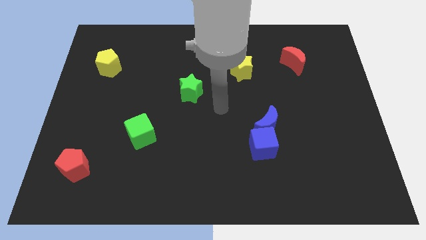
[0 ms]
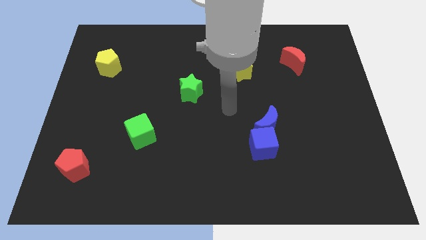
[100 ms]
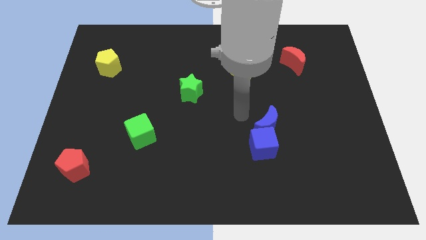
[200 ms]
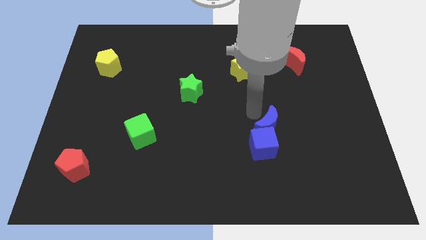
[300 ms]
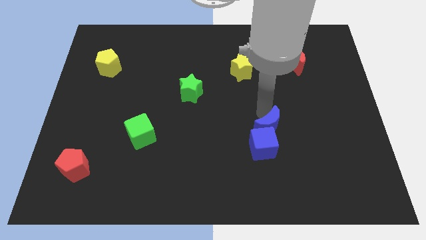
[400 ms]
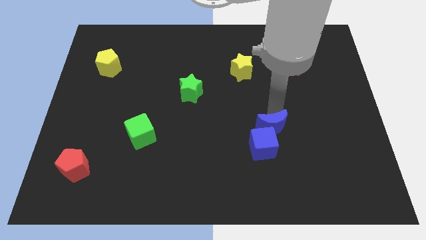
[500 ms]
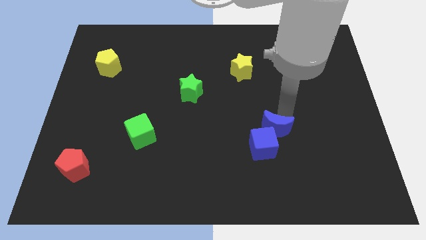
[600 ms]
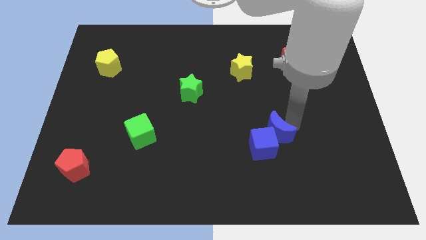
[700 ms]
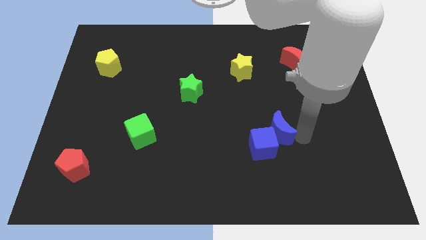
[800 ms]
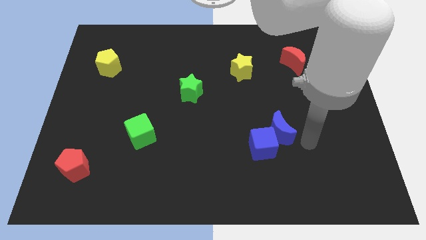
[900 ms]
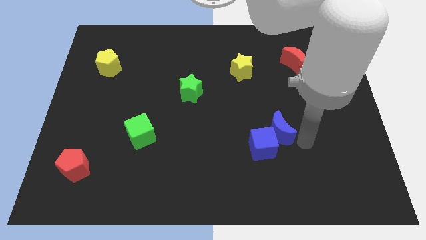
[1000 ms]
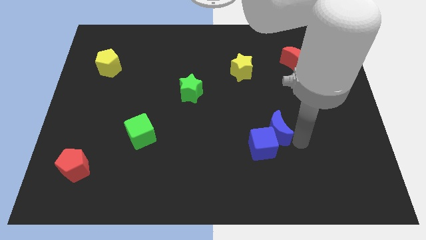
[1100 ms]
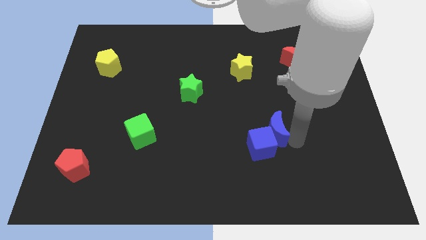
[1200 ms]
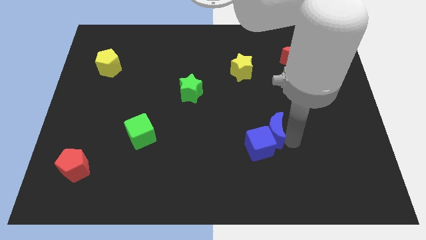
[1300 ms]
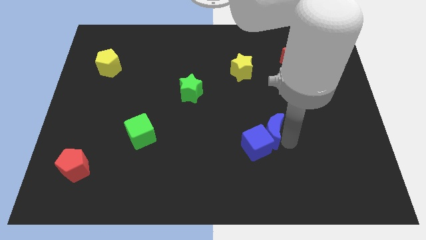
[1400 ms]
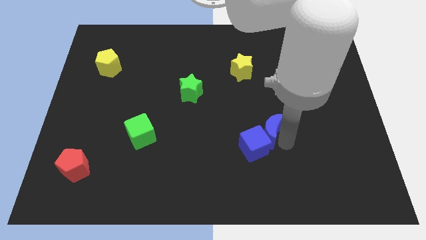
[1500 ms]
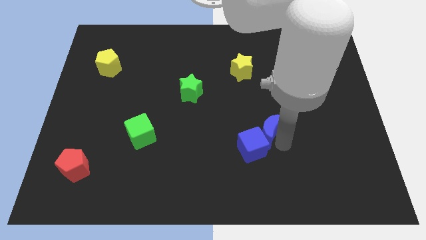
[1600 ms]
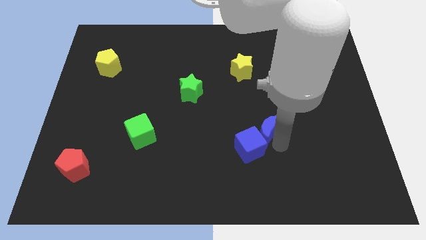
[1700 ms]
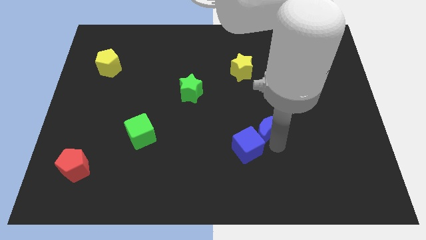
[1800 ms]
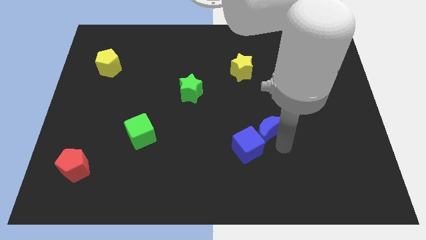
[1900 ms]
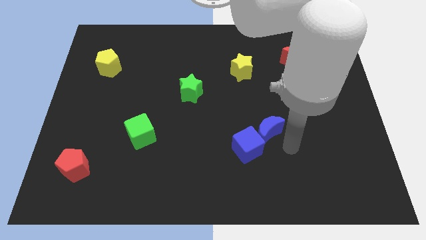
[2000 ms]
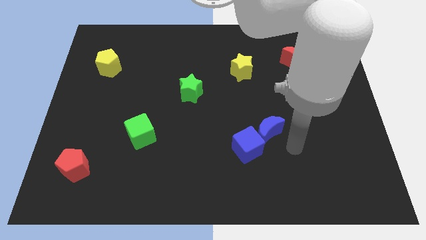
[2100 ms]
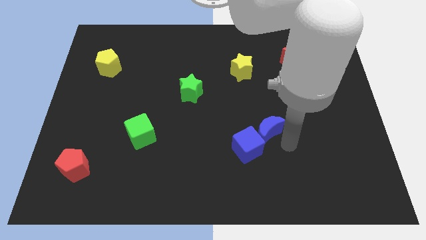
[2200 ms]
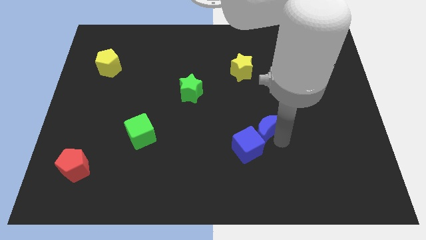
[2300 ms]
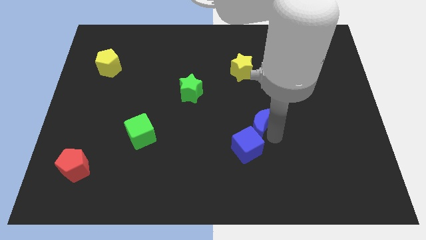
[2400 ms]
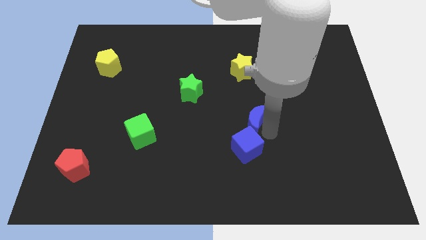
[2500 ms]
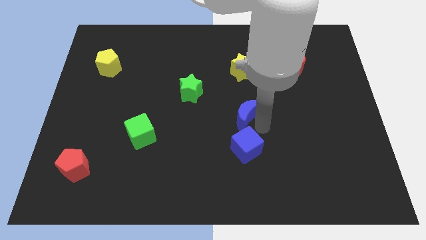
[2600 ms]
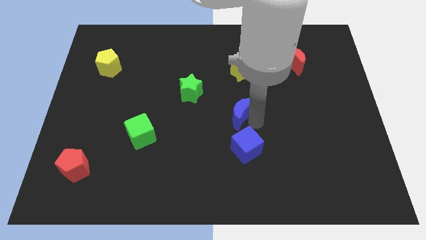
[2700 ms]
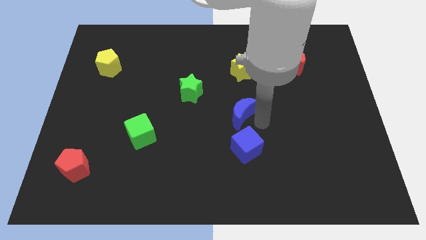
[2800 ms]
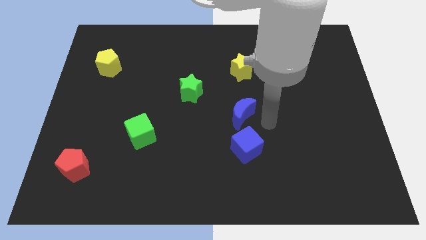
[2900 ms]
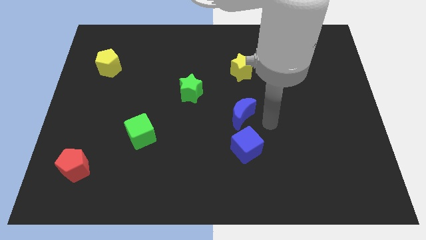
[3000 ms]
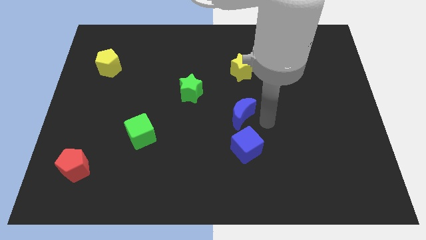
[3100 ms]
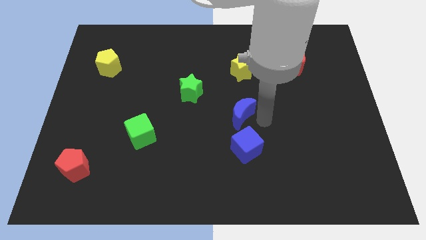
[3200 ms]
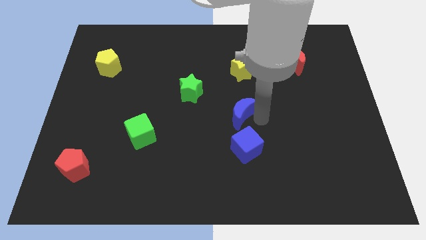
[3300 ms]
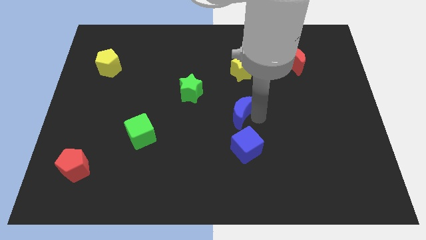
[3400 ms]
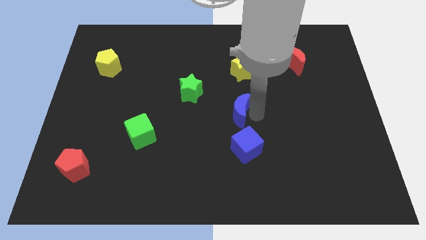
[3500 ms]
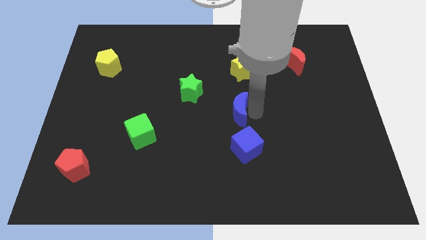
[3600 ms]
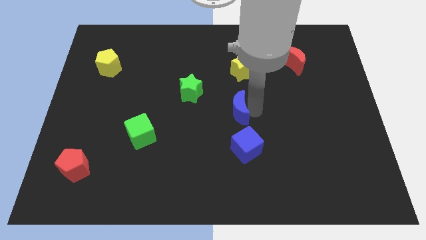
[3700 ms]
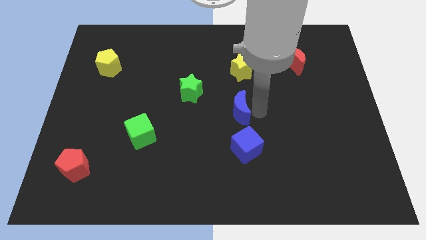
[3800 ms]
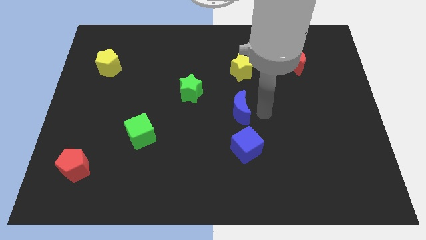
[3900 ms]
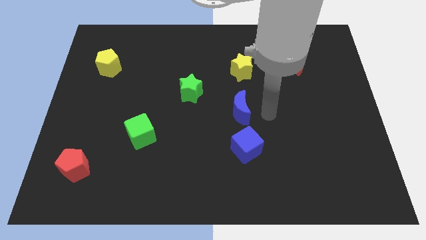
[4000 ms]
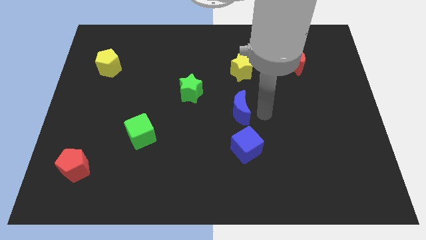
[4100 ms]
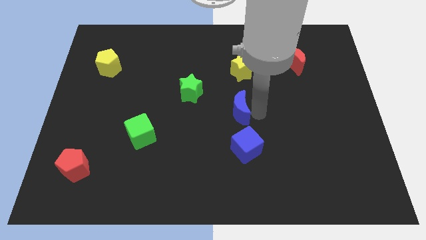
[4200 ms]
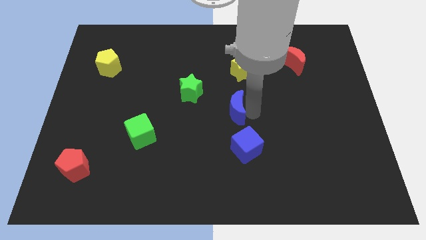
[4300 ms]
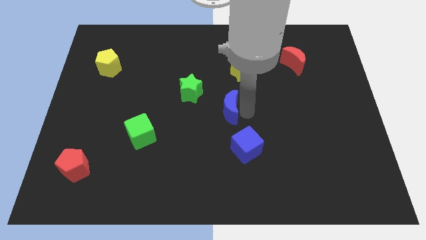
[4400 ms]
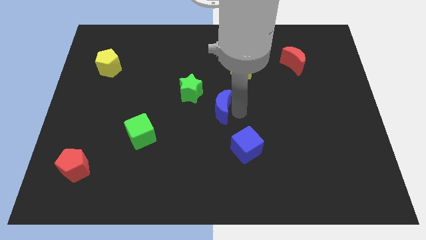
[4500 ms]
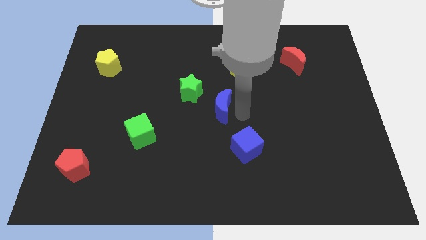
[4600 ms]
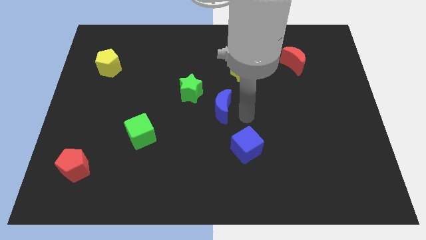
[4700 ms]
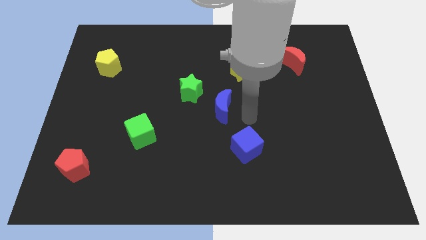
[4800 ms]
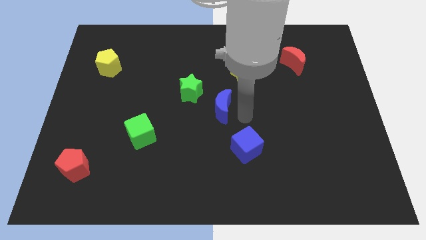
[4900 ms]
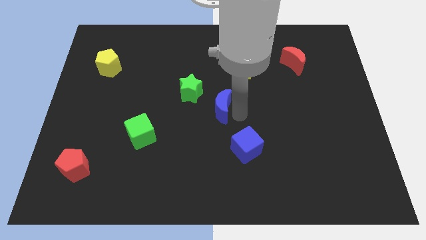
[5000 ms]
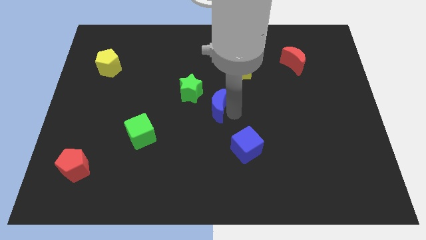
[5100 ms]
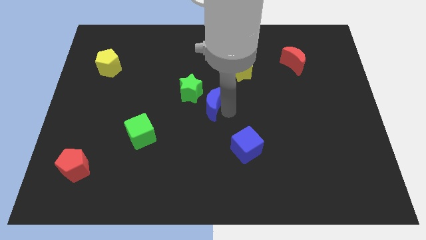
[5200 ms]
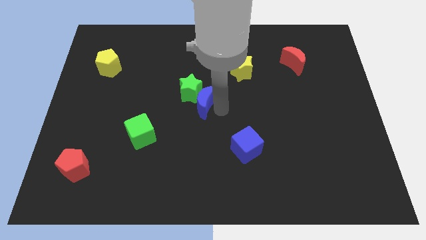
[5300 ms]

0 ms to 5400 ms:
put the blue moon towards the green star

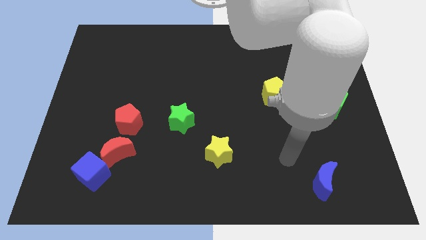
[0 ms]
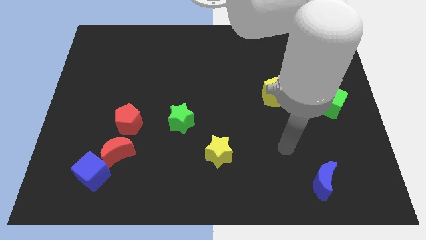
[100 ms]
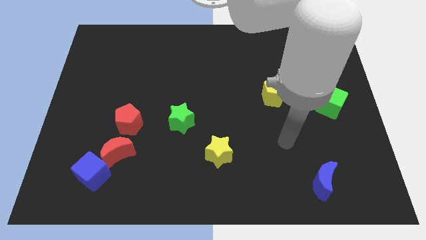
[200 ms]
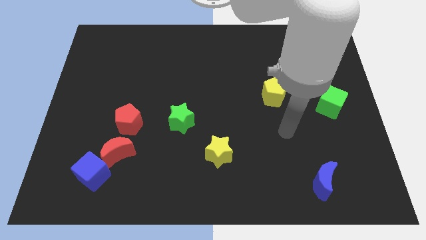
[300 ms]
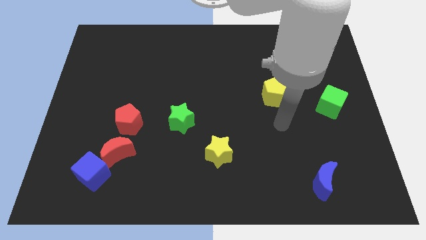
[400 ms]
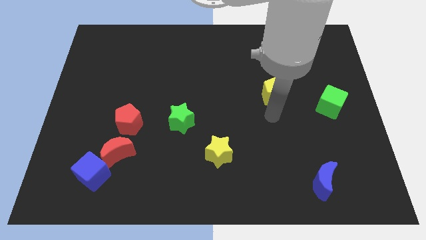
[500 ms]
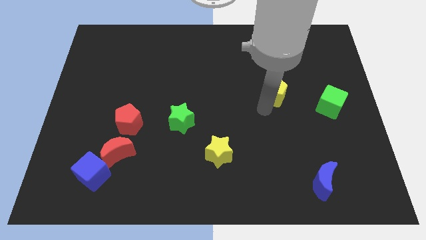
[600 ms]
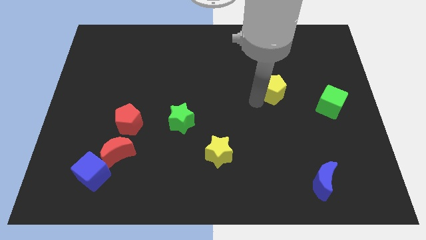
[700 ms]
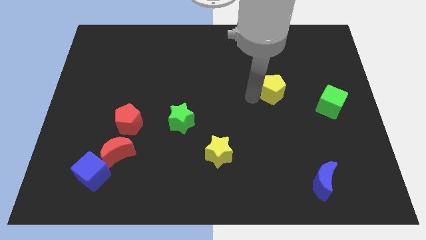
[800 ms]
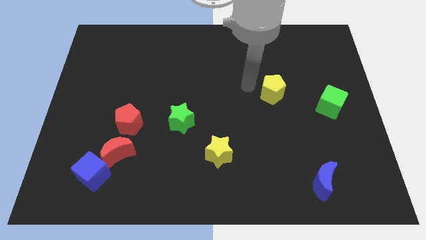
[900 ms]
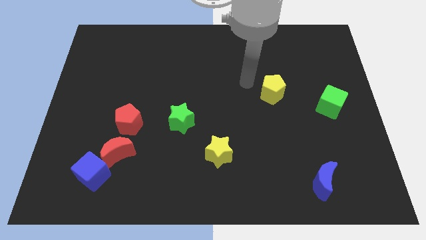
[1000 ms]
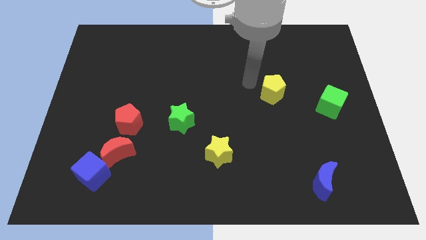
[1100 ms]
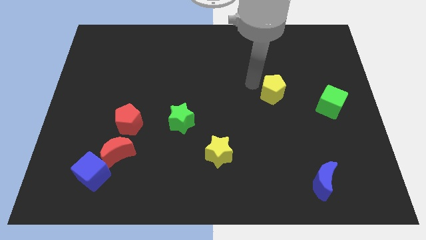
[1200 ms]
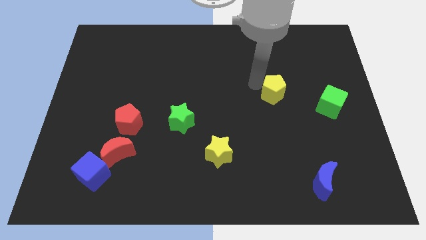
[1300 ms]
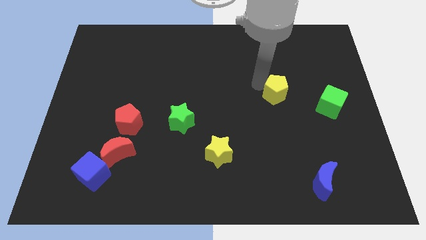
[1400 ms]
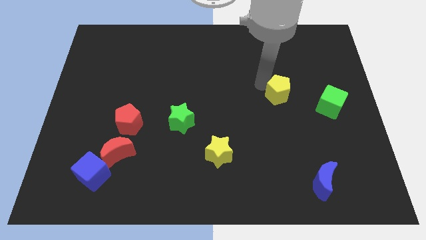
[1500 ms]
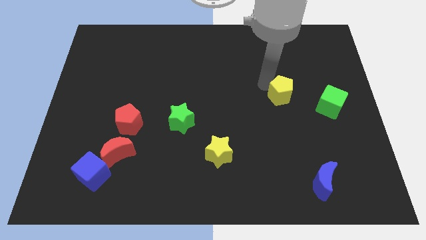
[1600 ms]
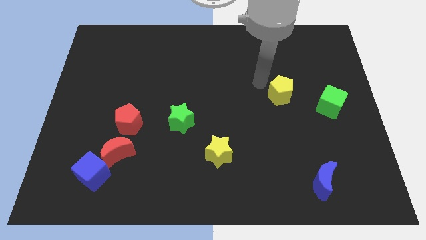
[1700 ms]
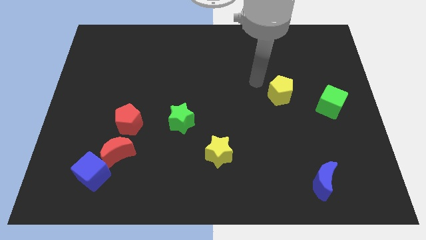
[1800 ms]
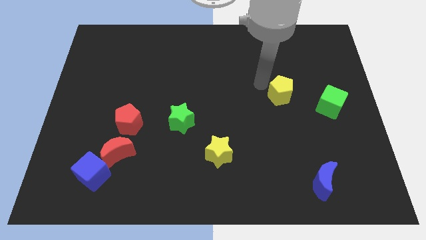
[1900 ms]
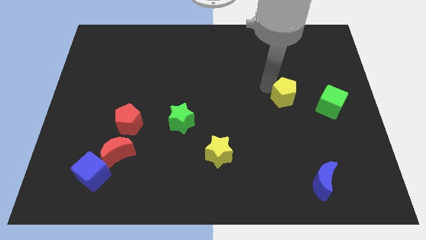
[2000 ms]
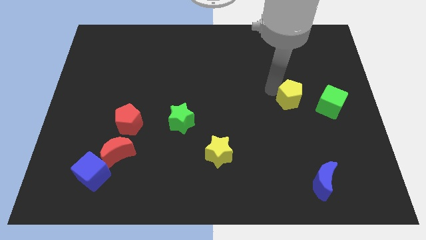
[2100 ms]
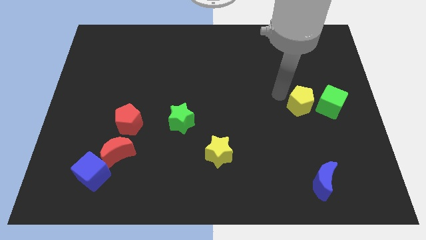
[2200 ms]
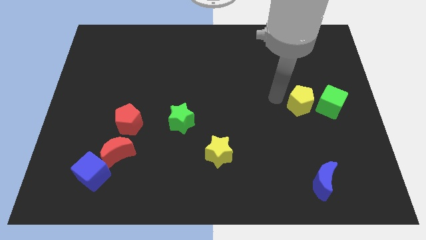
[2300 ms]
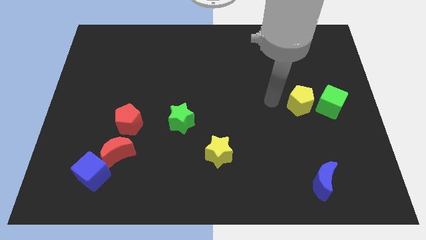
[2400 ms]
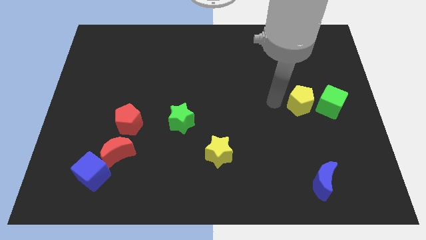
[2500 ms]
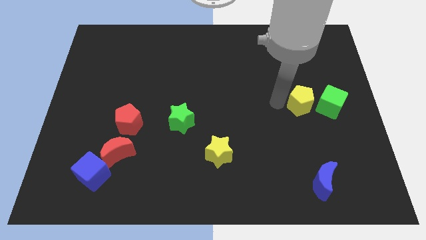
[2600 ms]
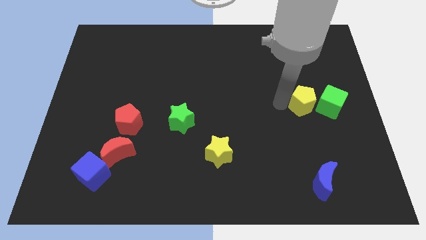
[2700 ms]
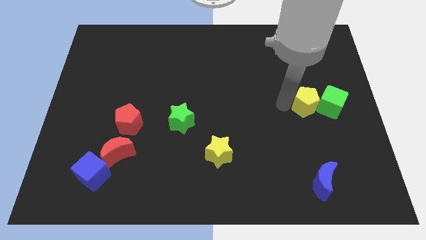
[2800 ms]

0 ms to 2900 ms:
put the yellow pentagon close to the green cube
